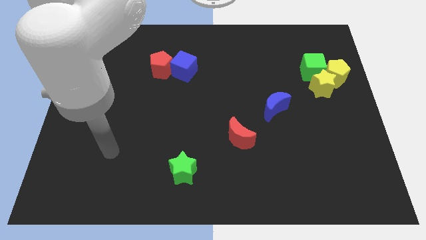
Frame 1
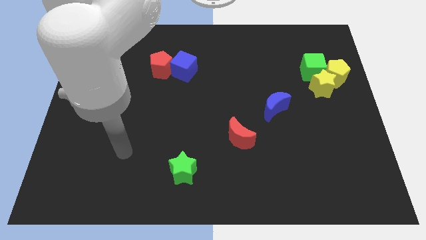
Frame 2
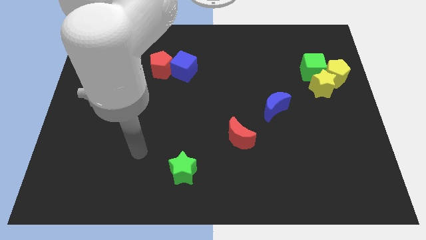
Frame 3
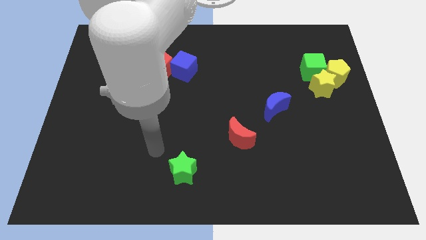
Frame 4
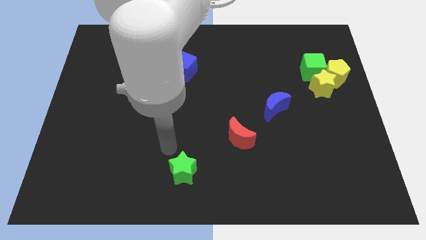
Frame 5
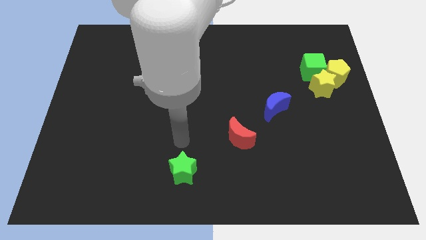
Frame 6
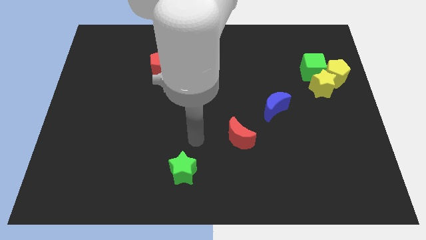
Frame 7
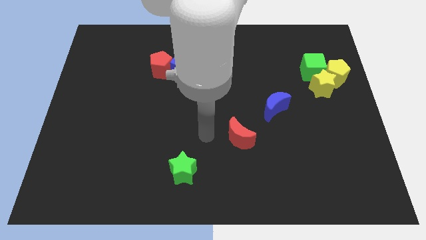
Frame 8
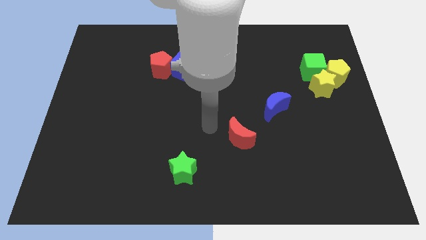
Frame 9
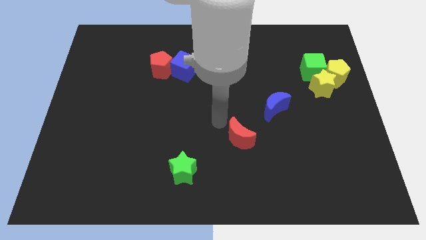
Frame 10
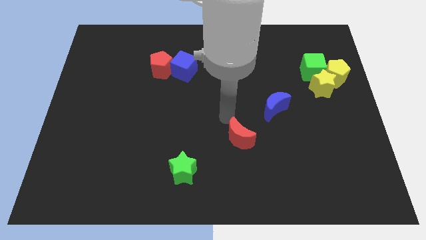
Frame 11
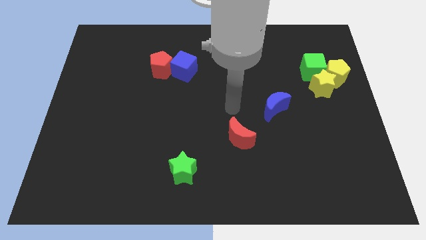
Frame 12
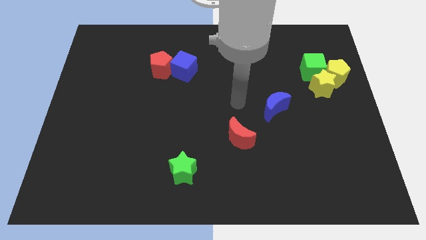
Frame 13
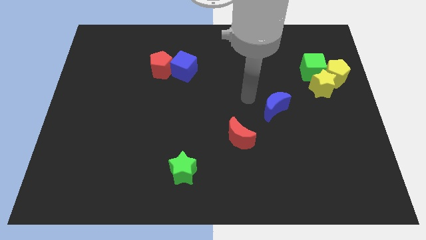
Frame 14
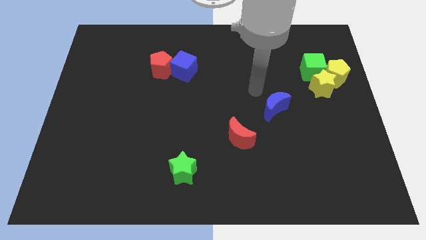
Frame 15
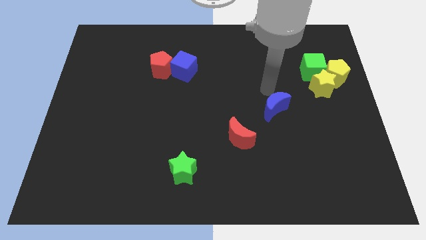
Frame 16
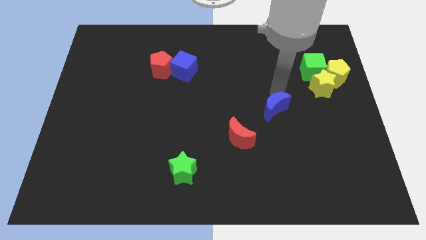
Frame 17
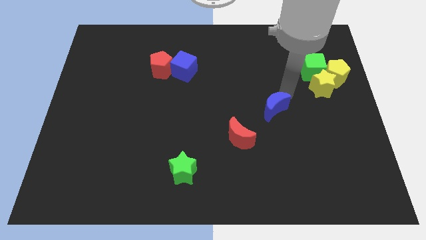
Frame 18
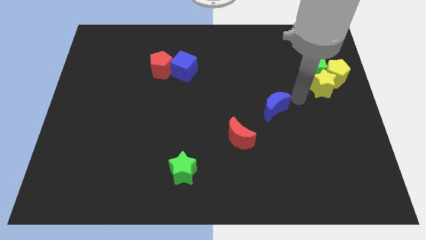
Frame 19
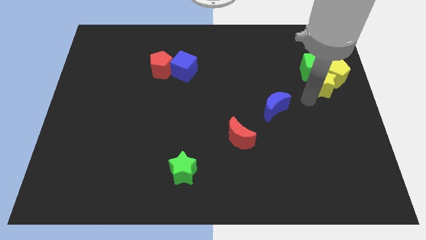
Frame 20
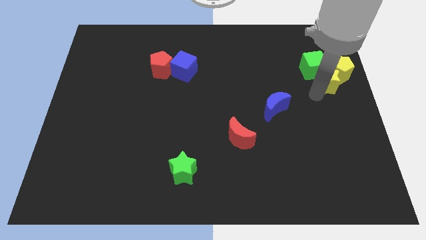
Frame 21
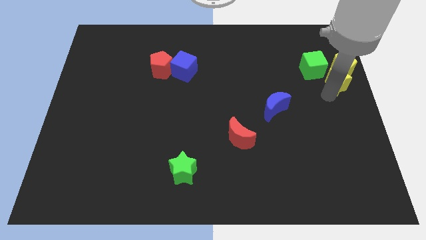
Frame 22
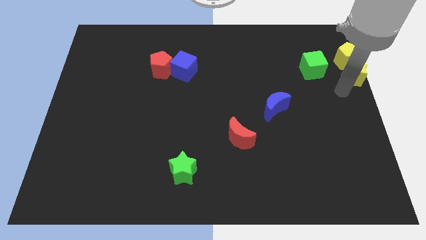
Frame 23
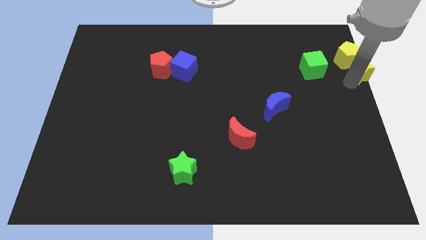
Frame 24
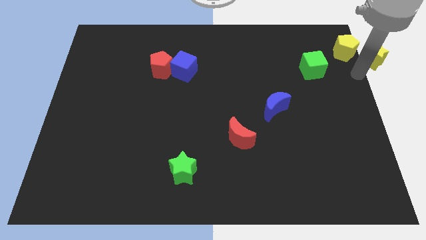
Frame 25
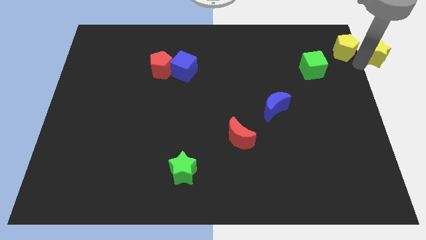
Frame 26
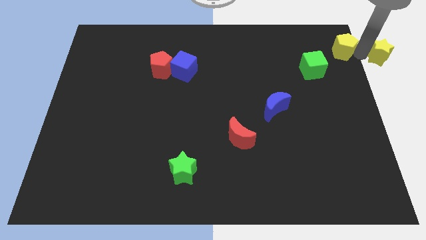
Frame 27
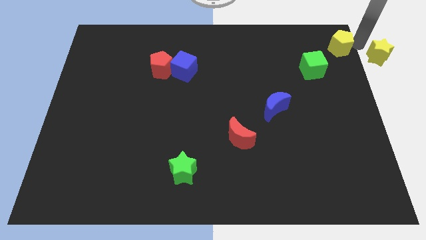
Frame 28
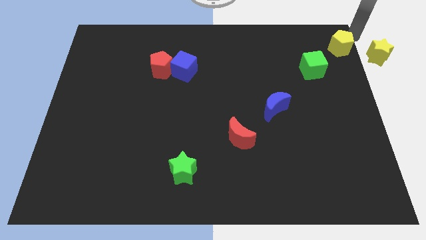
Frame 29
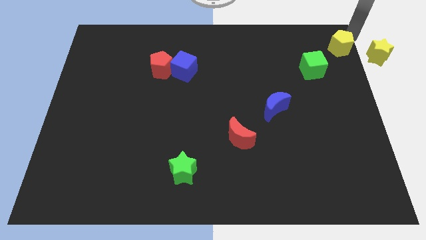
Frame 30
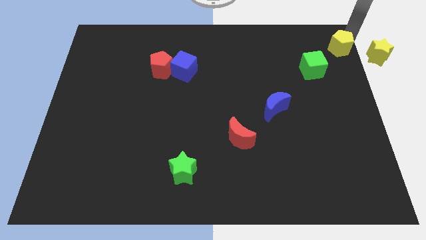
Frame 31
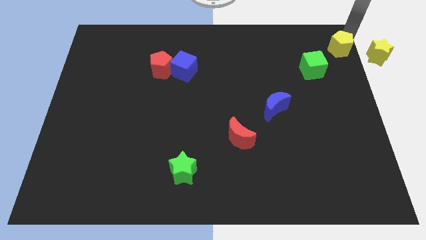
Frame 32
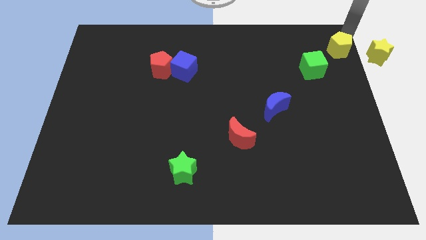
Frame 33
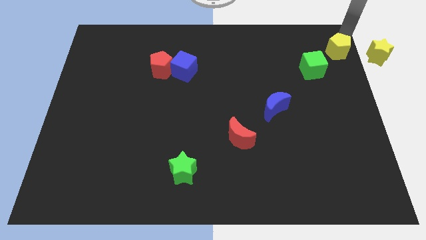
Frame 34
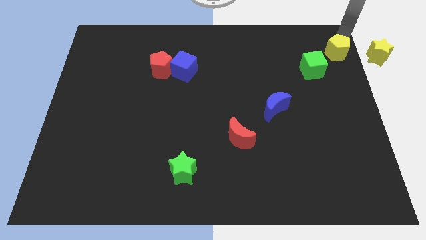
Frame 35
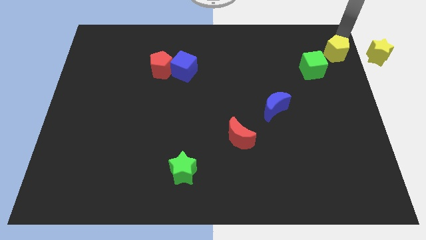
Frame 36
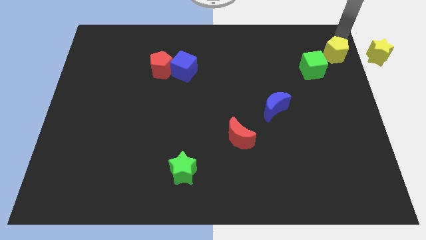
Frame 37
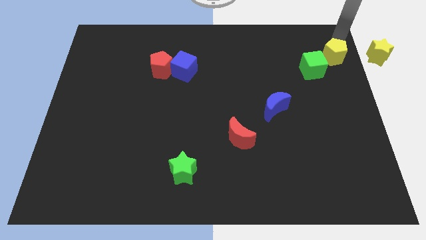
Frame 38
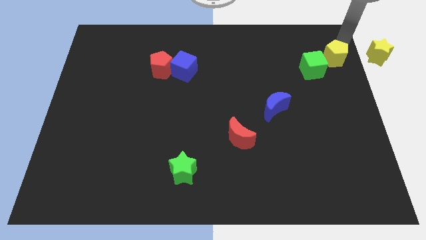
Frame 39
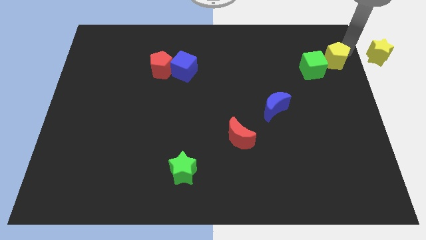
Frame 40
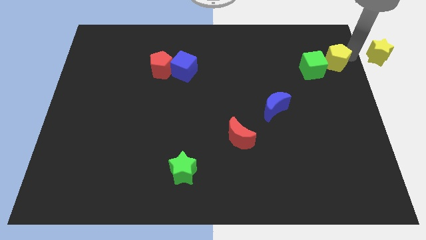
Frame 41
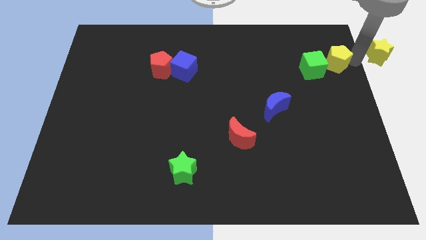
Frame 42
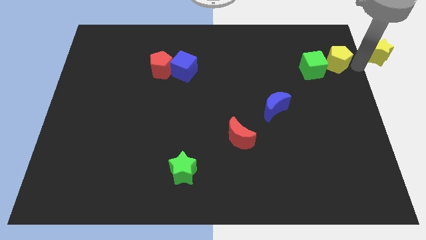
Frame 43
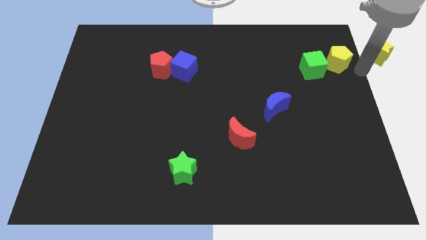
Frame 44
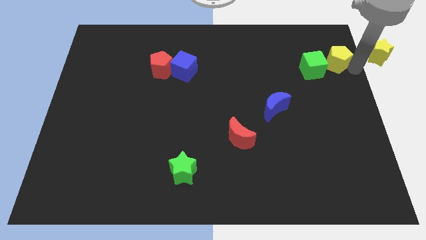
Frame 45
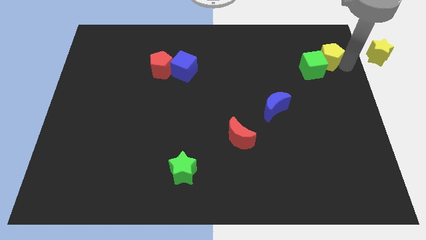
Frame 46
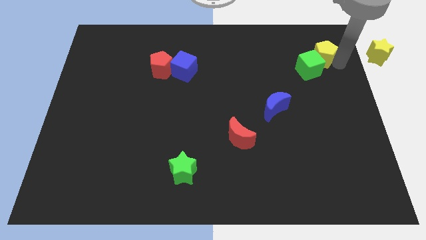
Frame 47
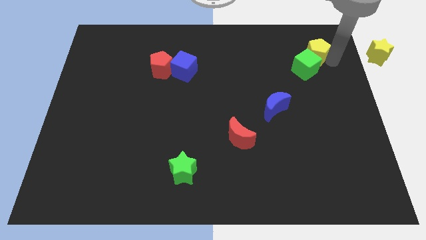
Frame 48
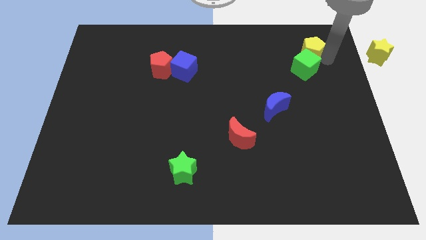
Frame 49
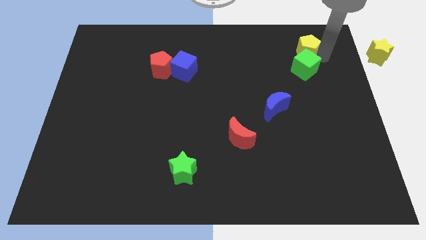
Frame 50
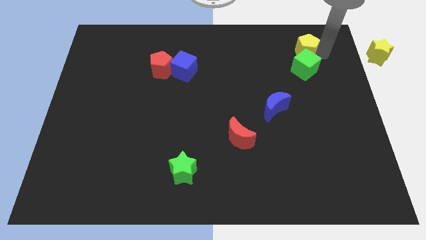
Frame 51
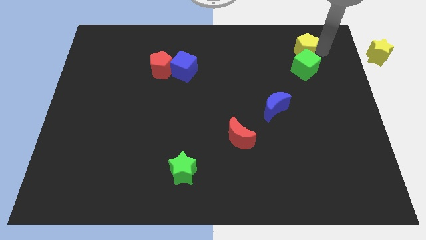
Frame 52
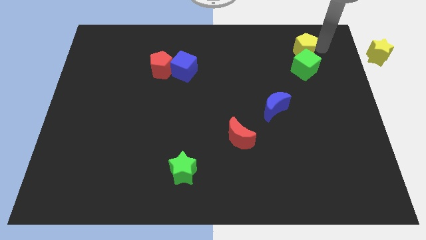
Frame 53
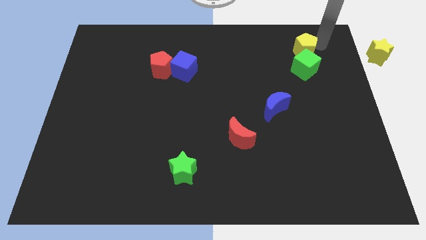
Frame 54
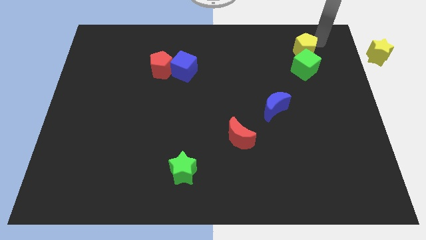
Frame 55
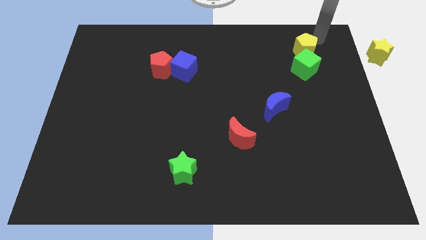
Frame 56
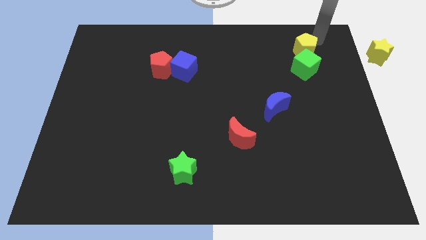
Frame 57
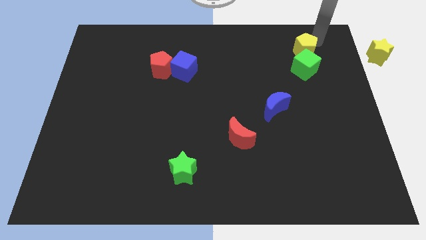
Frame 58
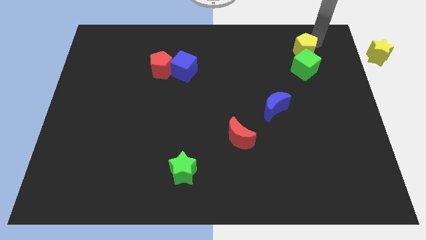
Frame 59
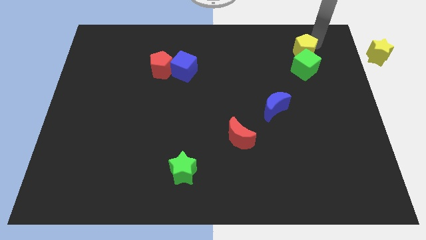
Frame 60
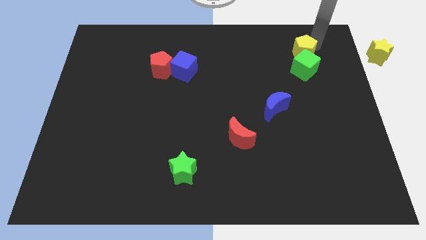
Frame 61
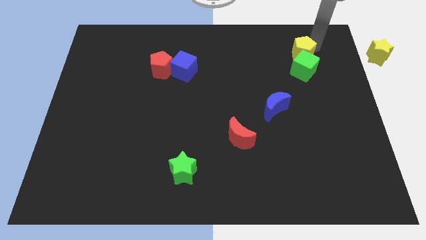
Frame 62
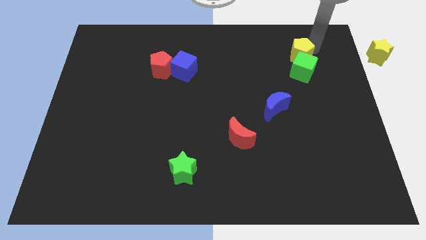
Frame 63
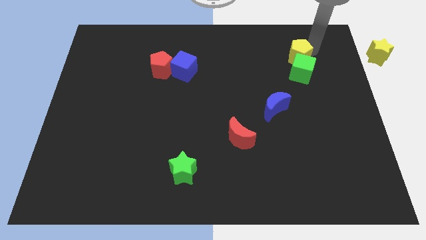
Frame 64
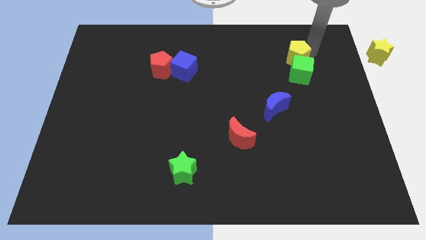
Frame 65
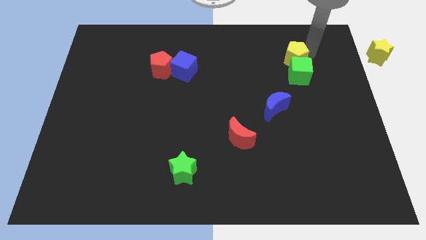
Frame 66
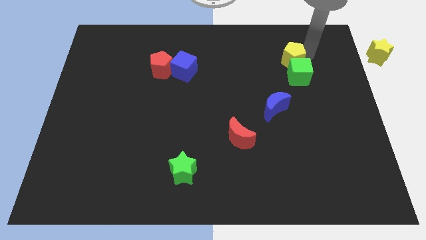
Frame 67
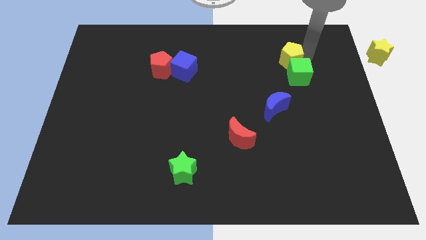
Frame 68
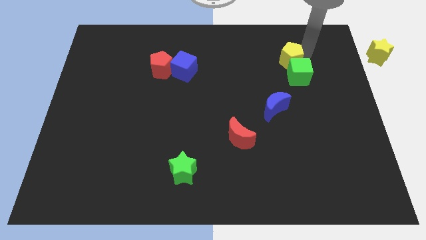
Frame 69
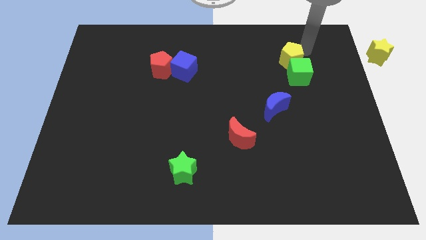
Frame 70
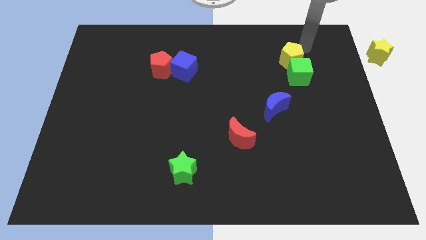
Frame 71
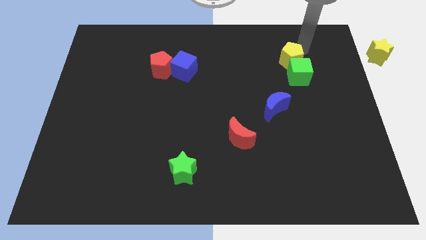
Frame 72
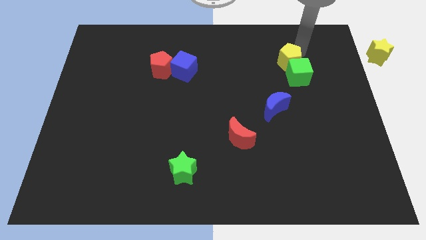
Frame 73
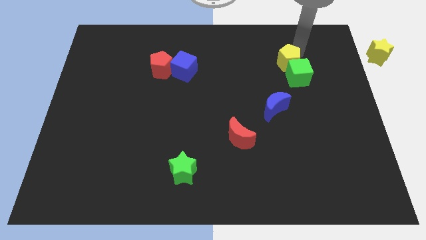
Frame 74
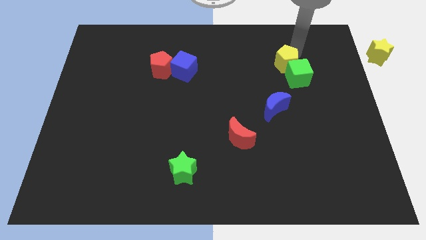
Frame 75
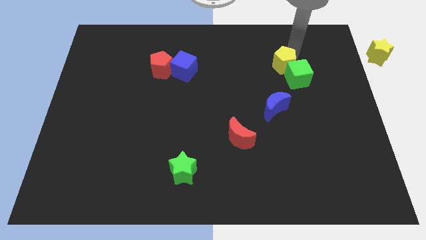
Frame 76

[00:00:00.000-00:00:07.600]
move the yellow pentagon to the top side of the blue moon
